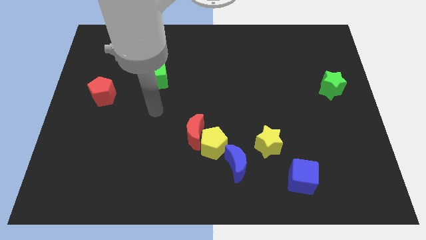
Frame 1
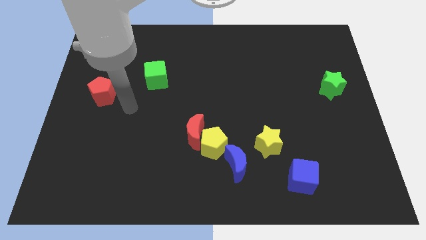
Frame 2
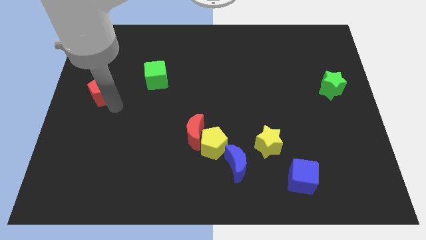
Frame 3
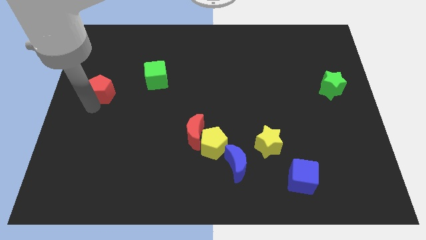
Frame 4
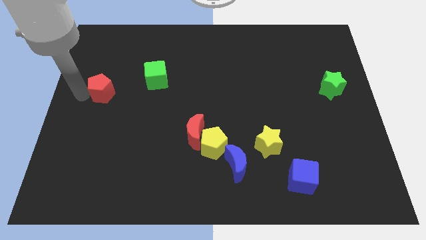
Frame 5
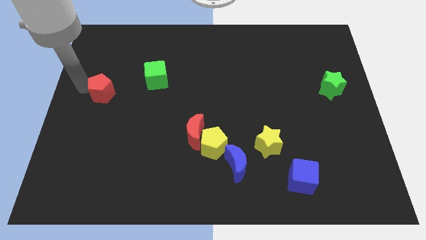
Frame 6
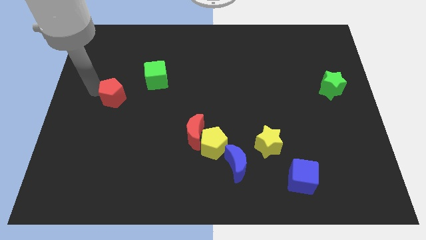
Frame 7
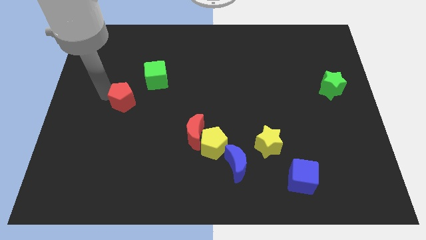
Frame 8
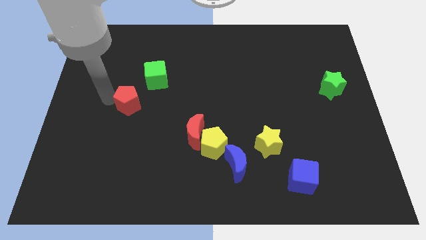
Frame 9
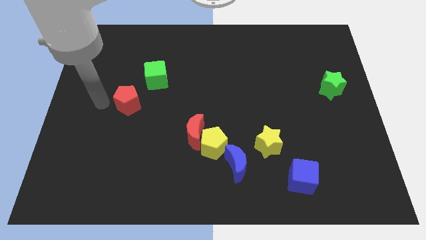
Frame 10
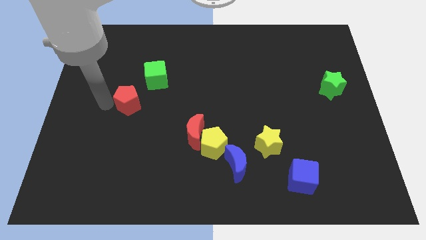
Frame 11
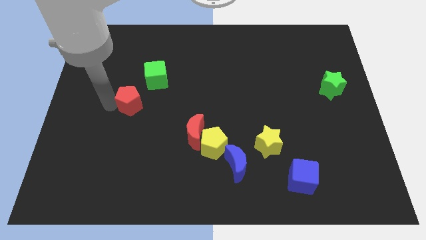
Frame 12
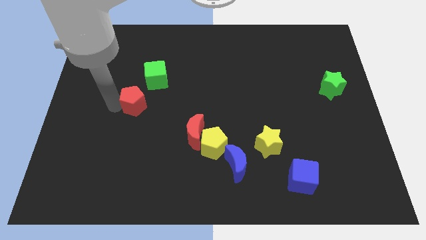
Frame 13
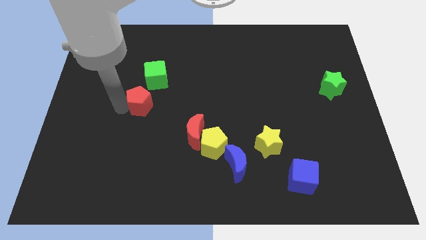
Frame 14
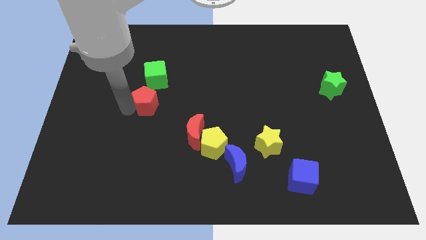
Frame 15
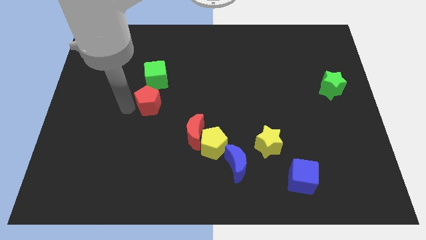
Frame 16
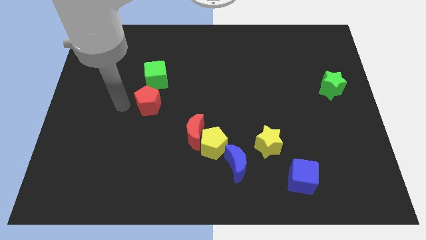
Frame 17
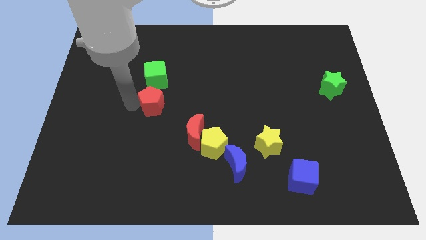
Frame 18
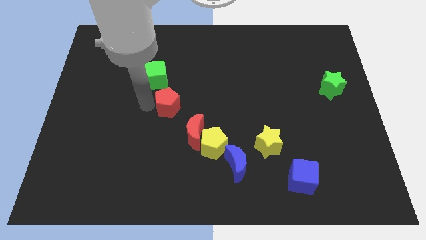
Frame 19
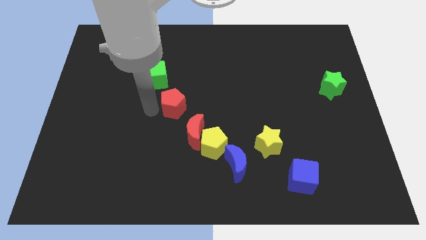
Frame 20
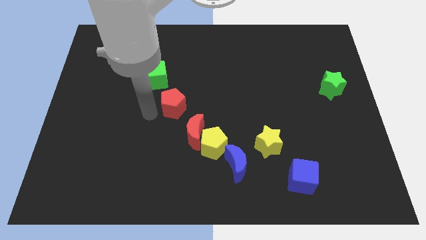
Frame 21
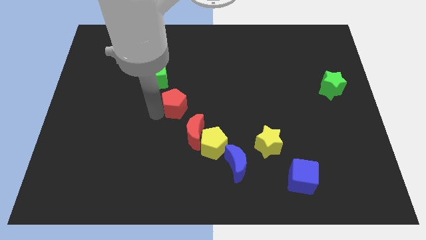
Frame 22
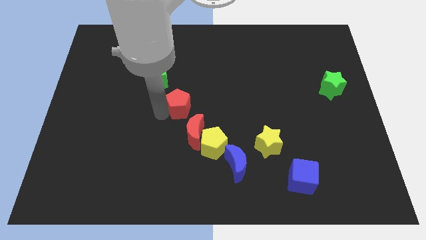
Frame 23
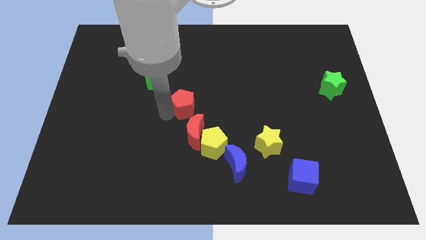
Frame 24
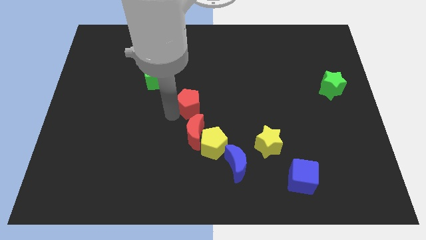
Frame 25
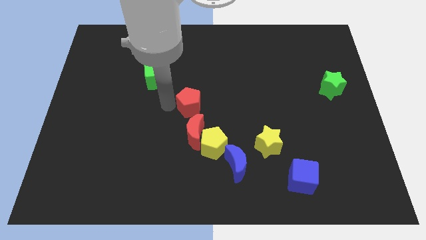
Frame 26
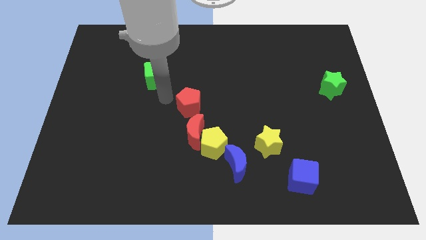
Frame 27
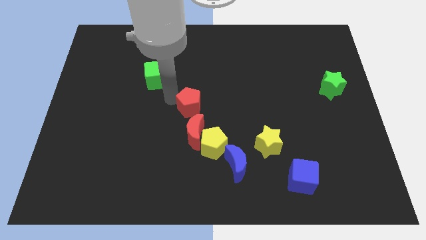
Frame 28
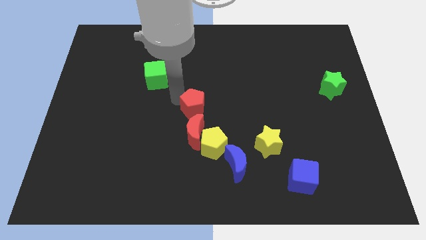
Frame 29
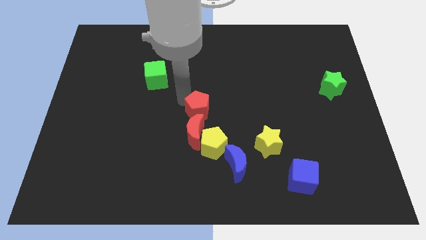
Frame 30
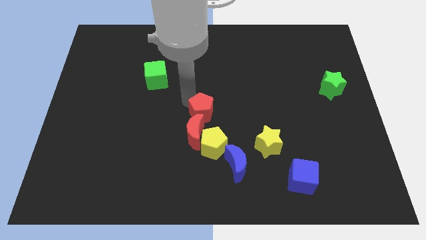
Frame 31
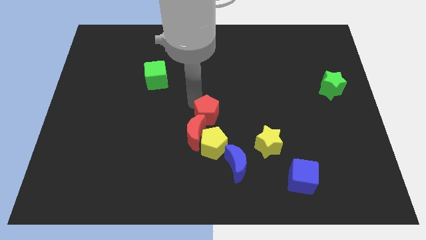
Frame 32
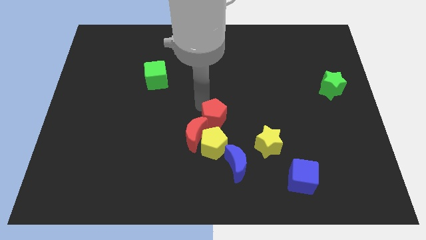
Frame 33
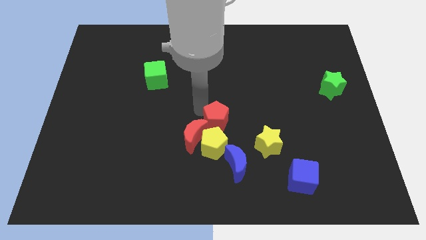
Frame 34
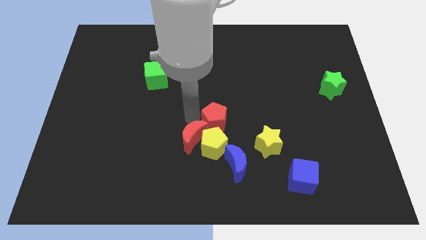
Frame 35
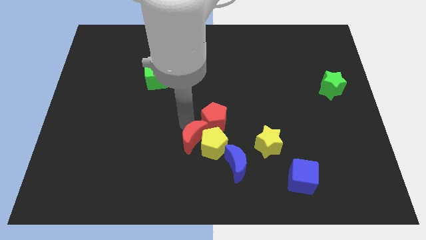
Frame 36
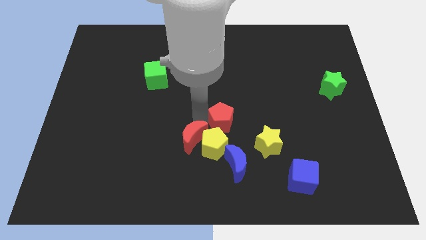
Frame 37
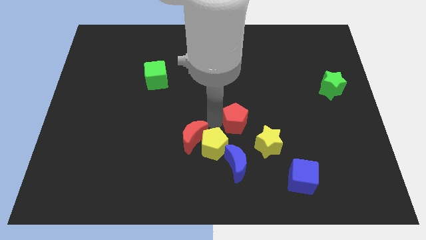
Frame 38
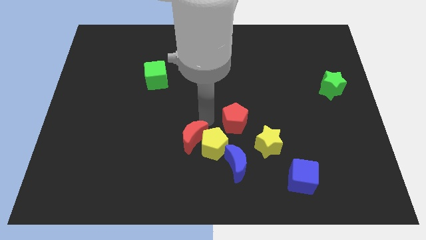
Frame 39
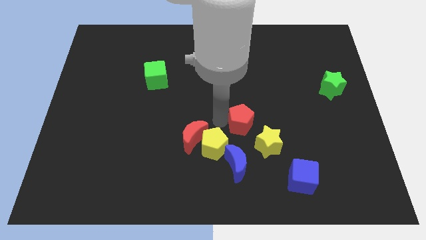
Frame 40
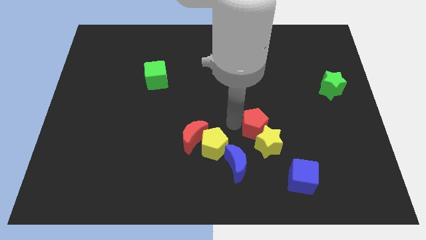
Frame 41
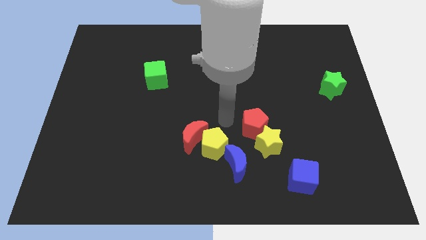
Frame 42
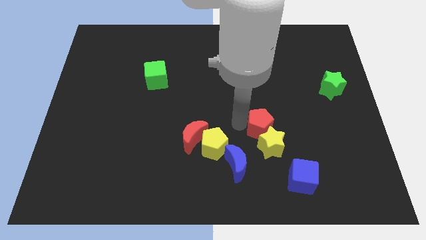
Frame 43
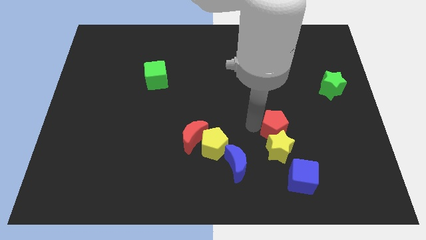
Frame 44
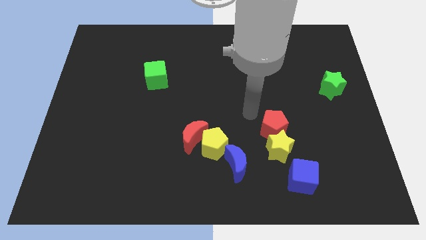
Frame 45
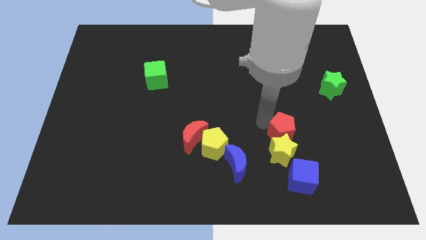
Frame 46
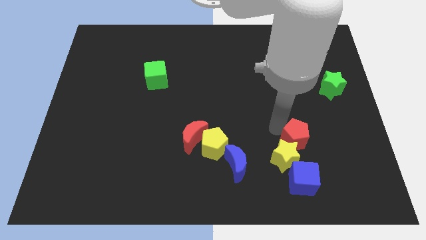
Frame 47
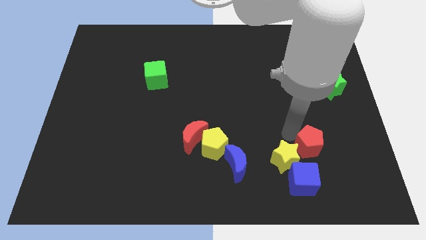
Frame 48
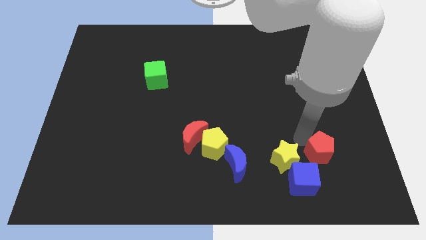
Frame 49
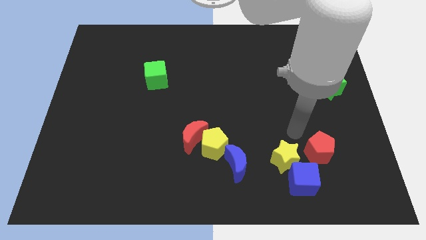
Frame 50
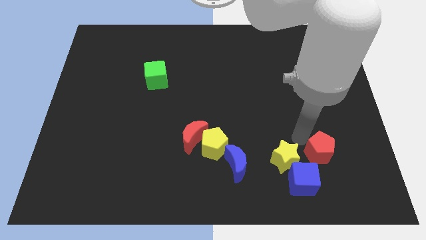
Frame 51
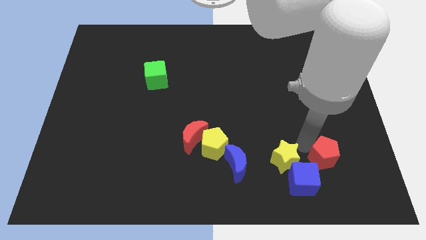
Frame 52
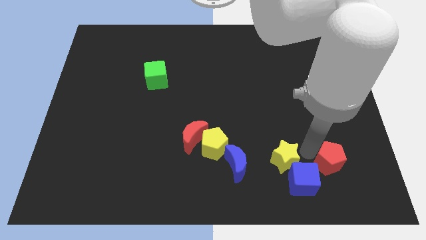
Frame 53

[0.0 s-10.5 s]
slide the red pentagon to the right of the blue cube

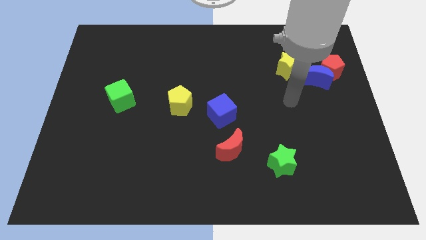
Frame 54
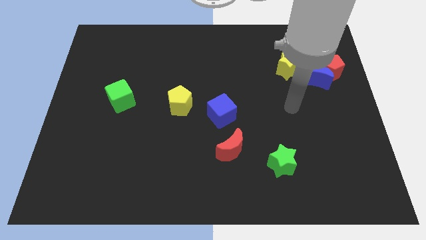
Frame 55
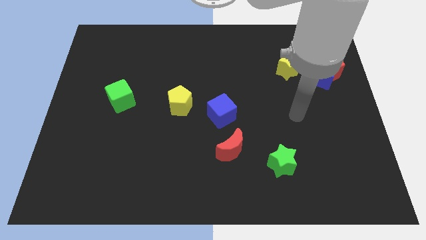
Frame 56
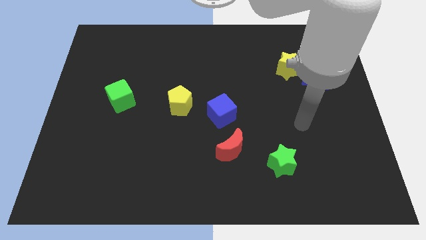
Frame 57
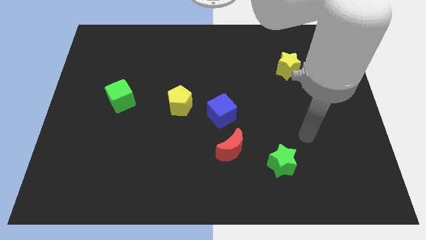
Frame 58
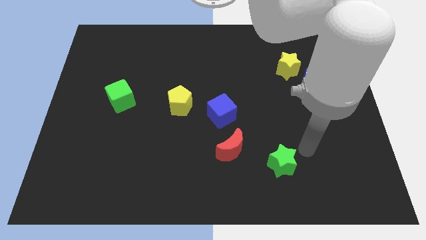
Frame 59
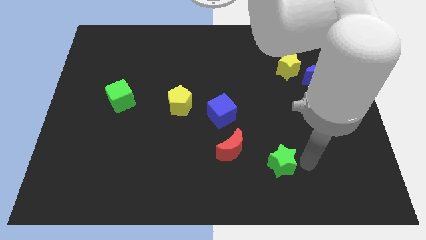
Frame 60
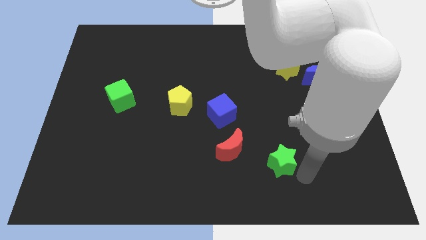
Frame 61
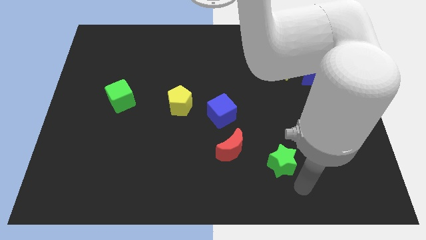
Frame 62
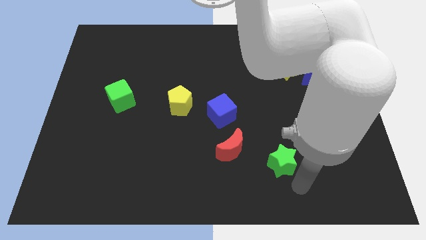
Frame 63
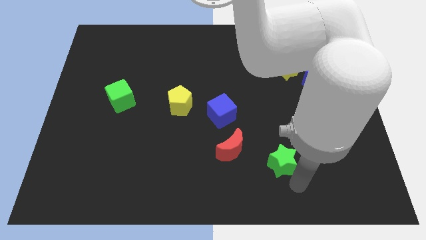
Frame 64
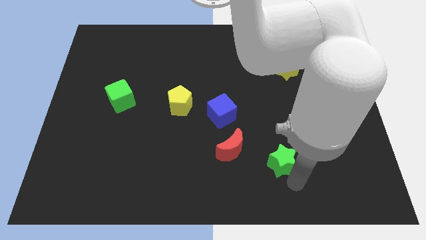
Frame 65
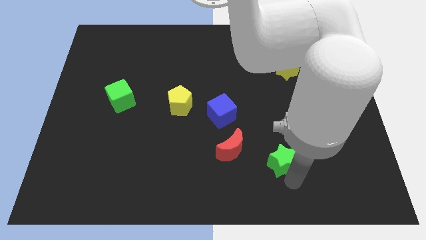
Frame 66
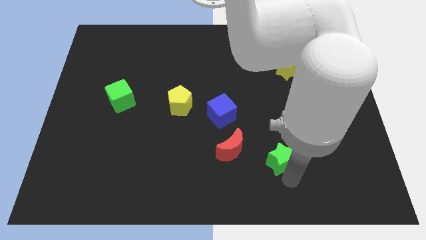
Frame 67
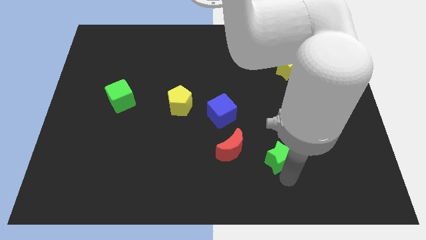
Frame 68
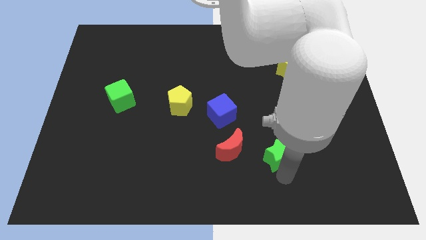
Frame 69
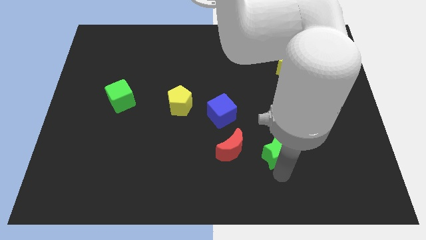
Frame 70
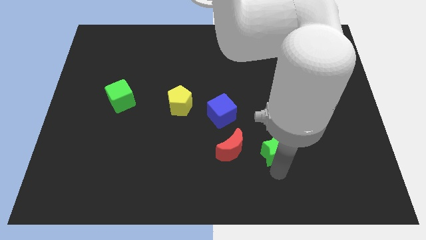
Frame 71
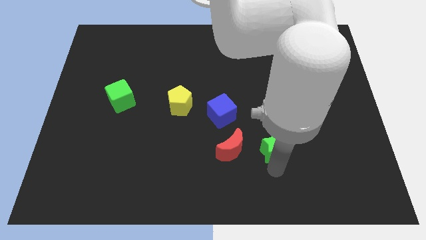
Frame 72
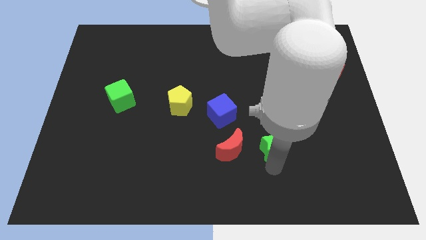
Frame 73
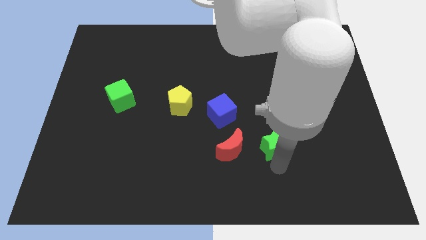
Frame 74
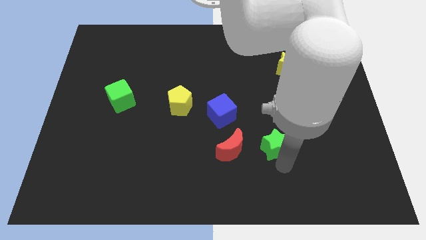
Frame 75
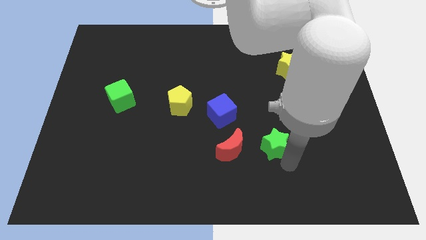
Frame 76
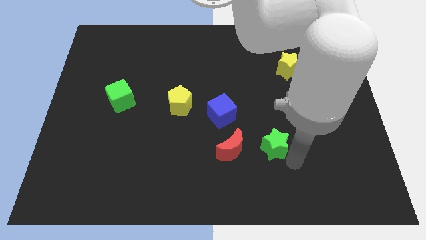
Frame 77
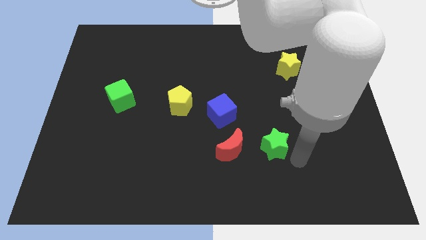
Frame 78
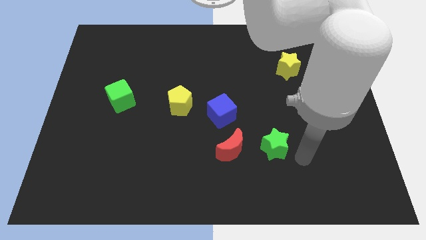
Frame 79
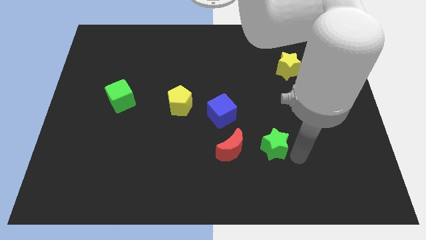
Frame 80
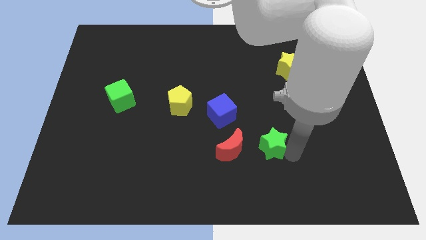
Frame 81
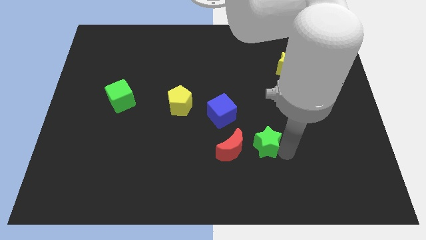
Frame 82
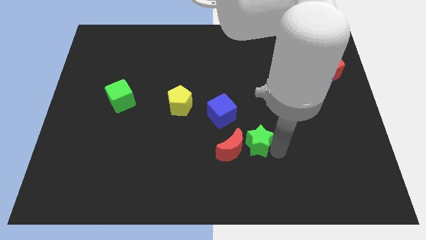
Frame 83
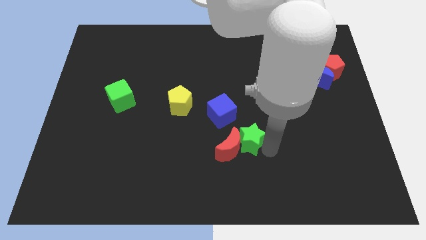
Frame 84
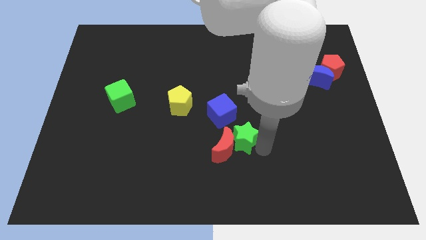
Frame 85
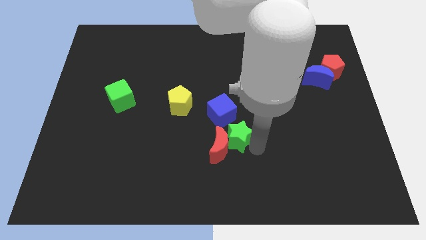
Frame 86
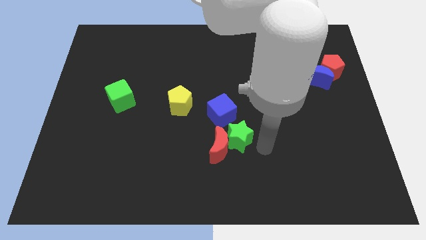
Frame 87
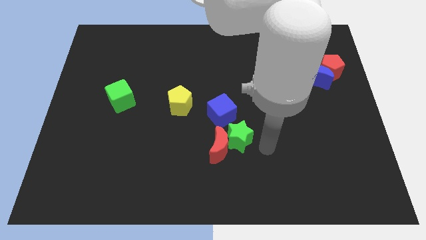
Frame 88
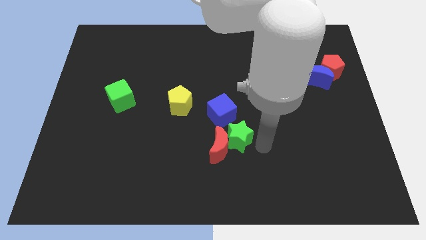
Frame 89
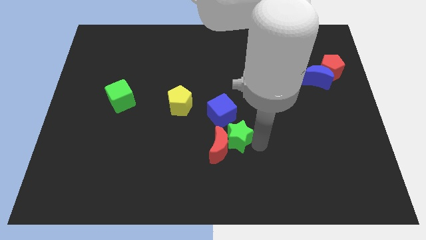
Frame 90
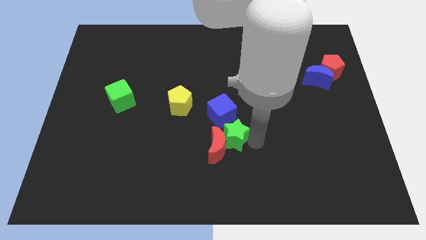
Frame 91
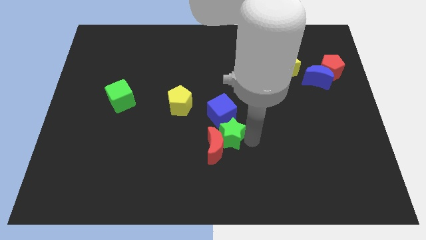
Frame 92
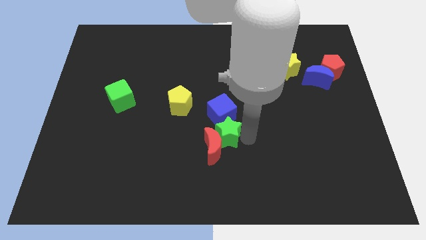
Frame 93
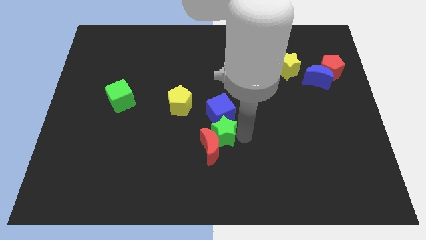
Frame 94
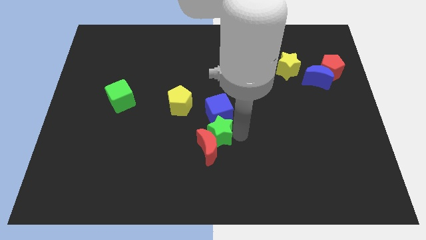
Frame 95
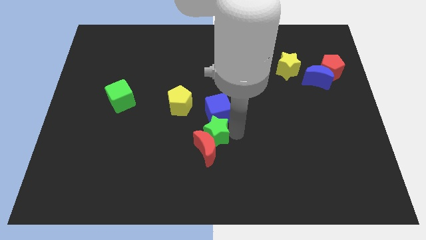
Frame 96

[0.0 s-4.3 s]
slide the green star to the top left of the red moon
